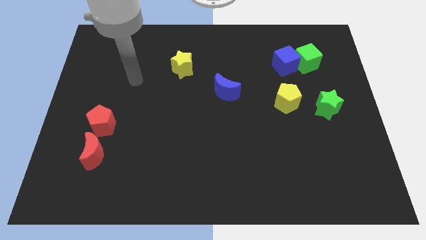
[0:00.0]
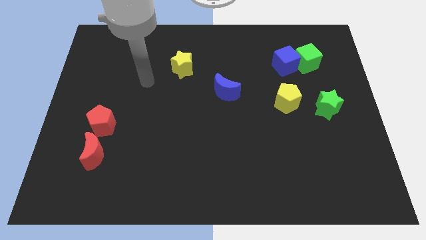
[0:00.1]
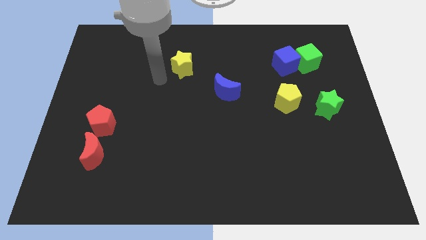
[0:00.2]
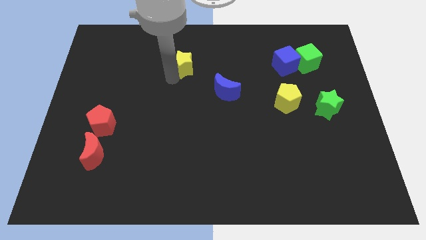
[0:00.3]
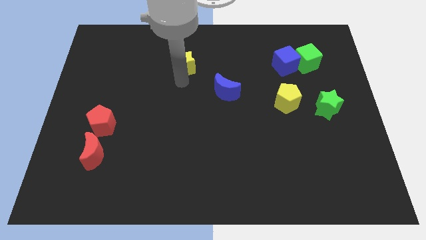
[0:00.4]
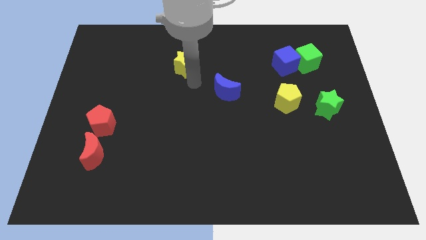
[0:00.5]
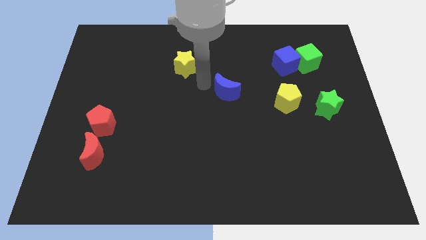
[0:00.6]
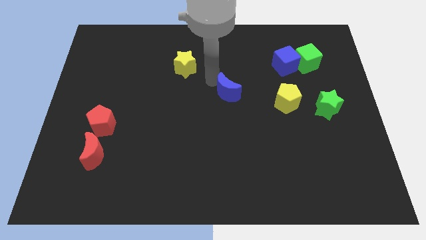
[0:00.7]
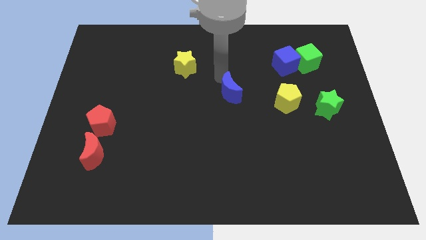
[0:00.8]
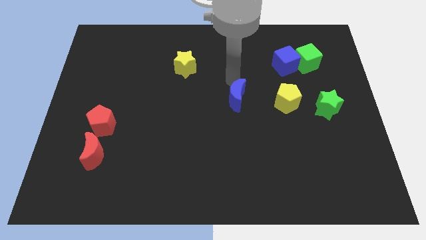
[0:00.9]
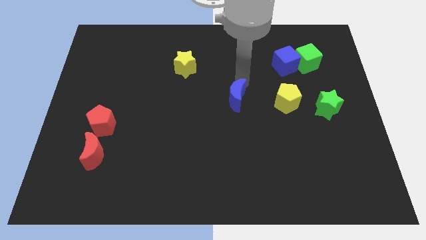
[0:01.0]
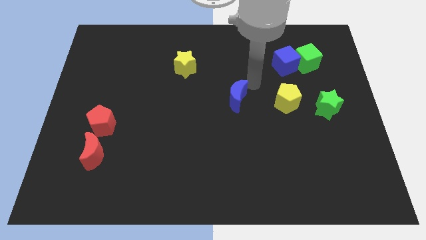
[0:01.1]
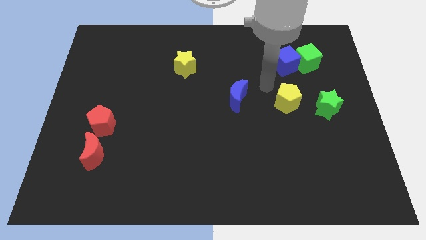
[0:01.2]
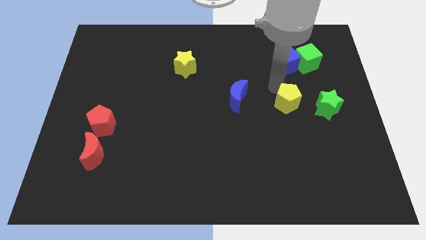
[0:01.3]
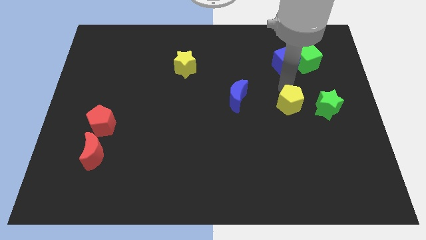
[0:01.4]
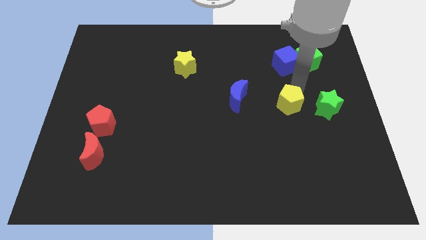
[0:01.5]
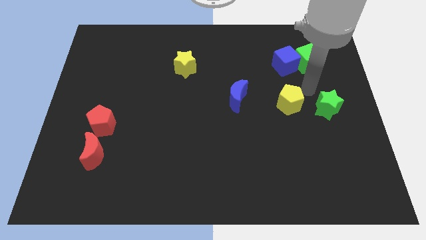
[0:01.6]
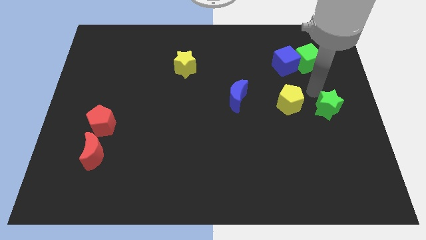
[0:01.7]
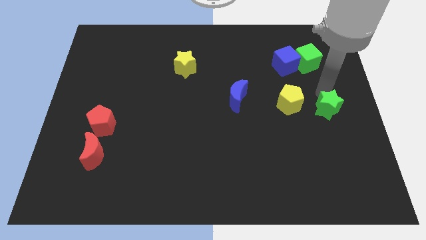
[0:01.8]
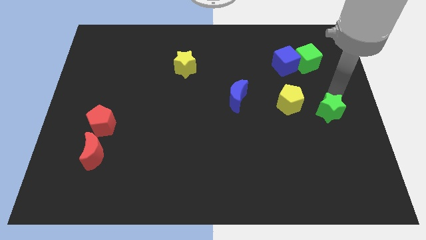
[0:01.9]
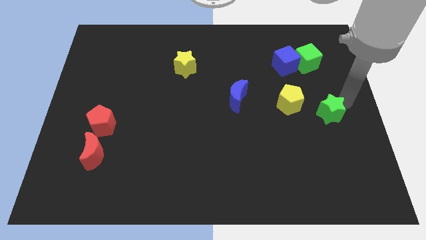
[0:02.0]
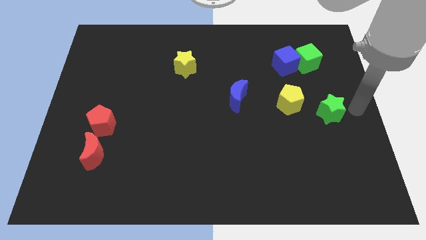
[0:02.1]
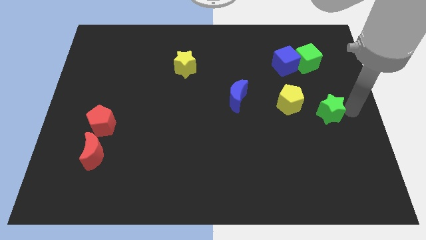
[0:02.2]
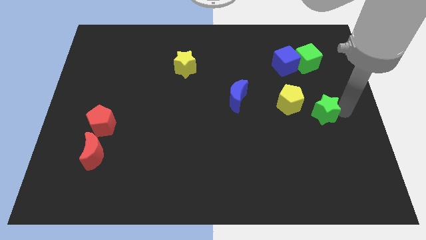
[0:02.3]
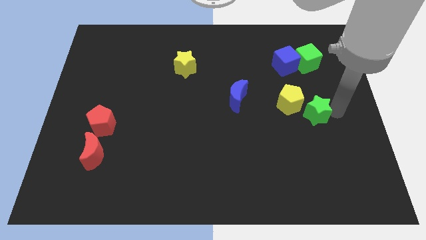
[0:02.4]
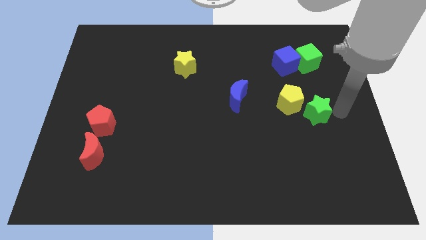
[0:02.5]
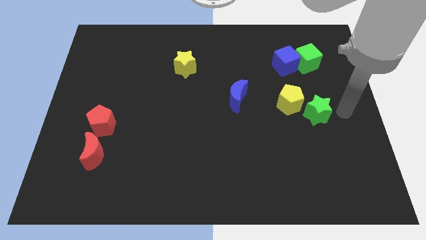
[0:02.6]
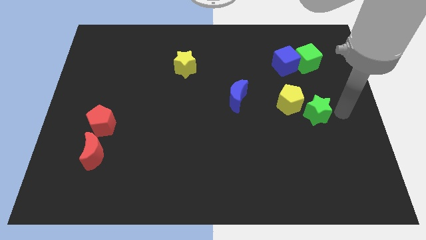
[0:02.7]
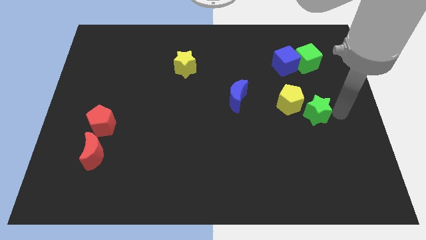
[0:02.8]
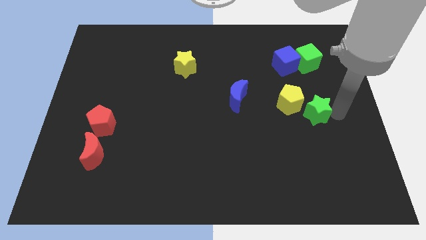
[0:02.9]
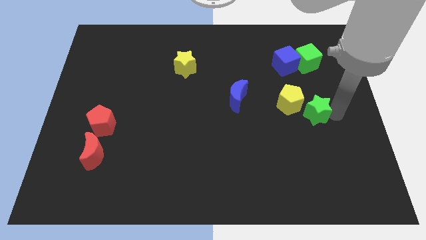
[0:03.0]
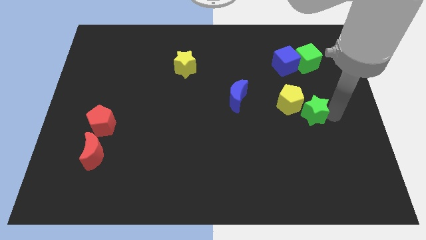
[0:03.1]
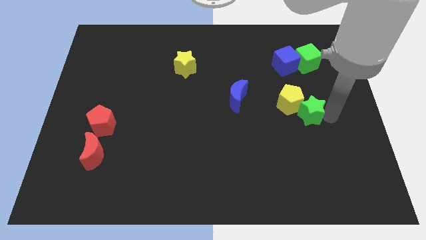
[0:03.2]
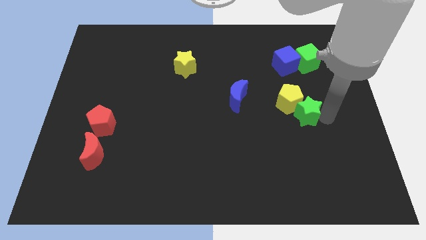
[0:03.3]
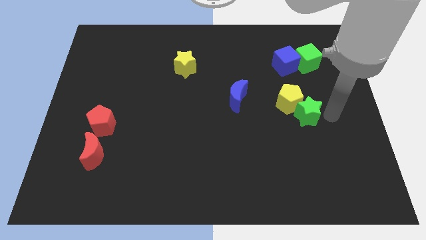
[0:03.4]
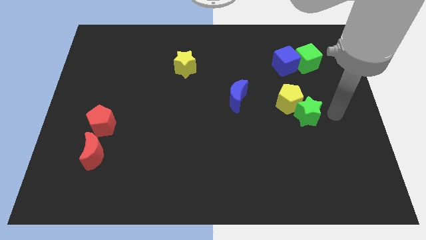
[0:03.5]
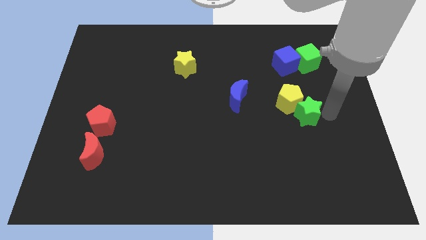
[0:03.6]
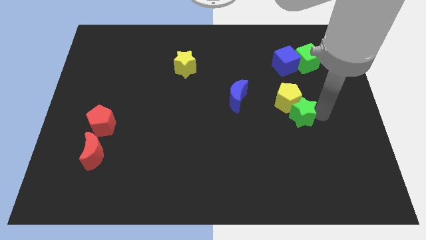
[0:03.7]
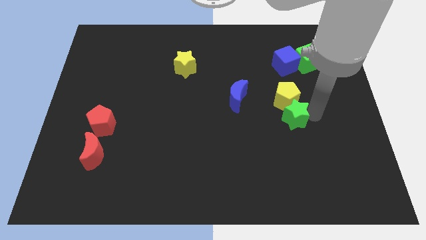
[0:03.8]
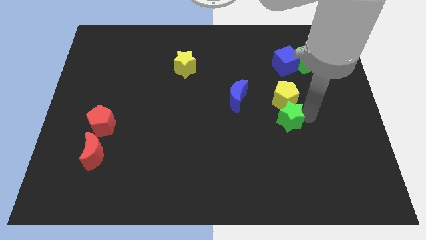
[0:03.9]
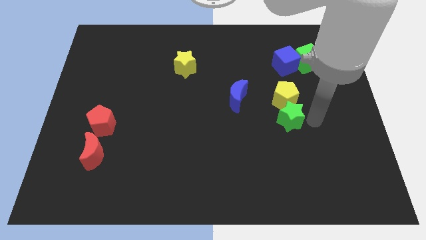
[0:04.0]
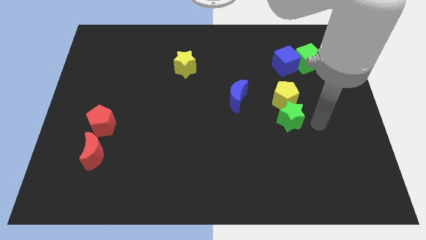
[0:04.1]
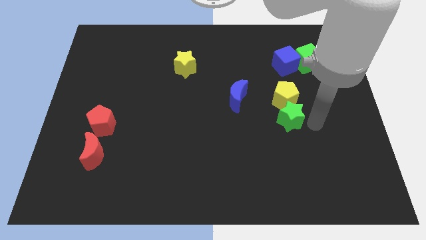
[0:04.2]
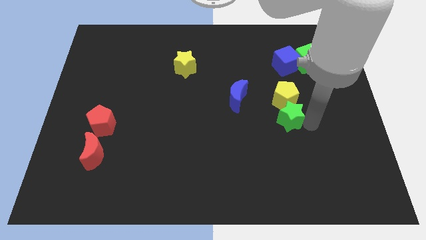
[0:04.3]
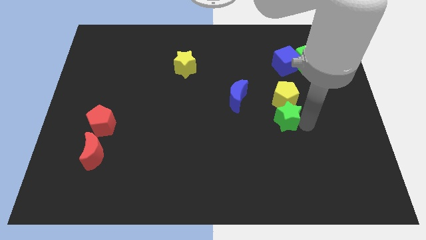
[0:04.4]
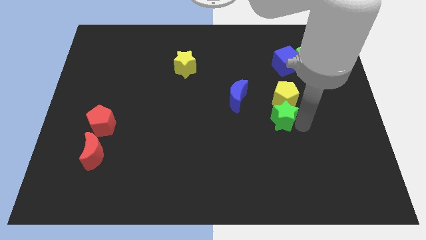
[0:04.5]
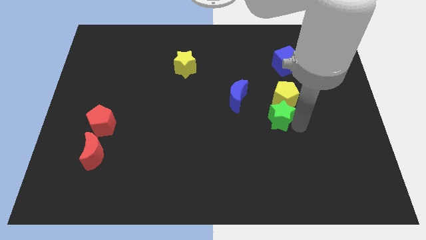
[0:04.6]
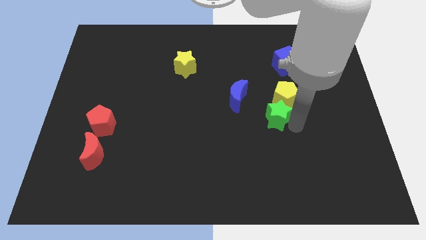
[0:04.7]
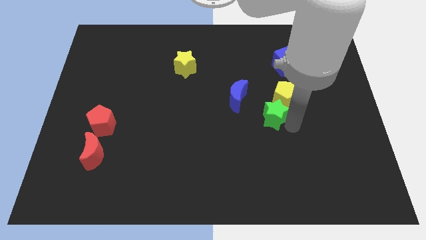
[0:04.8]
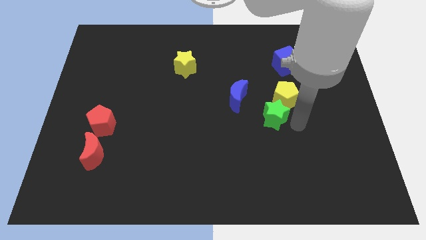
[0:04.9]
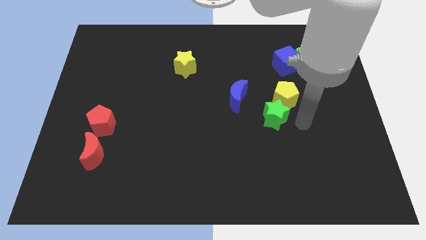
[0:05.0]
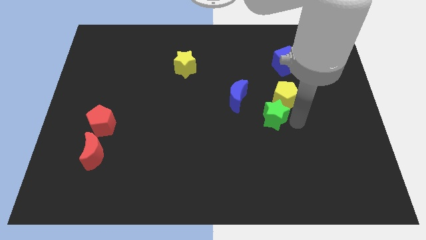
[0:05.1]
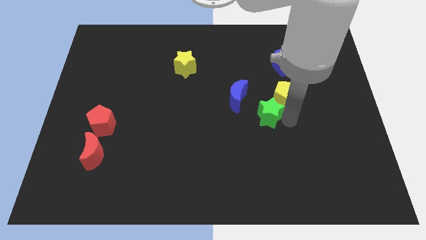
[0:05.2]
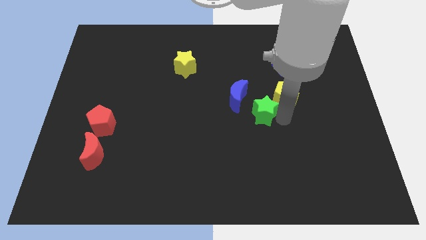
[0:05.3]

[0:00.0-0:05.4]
push the green star to the middle

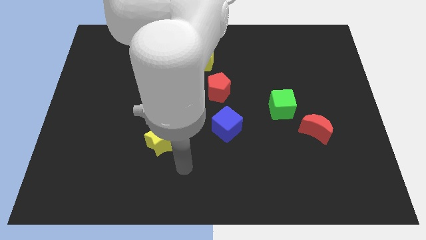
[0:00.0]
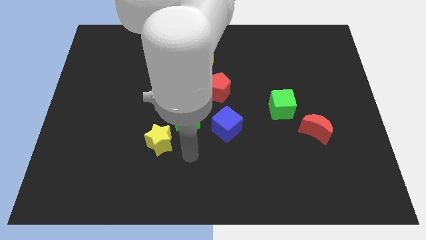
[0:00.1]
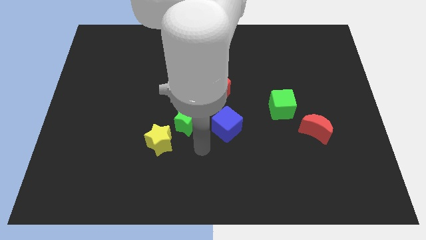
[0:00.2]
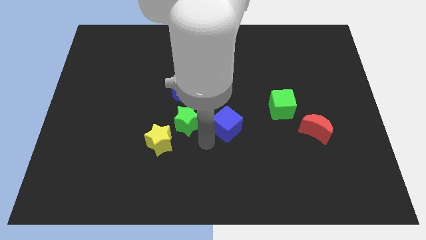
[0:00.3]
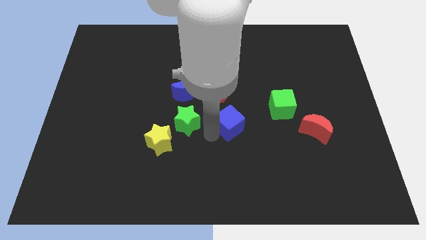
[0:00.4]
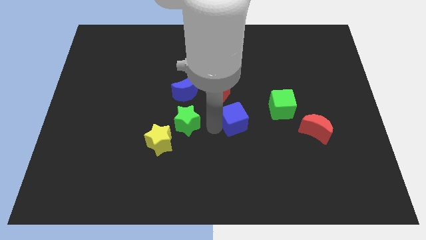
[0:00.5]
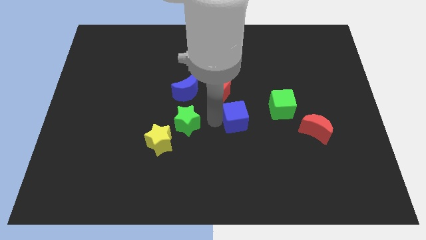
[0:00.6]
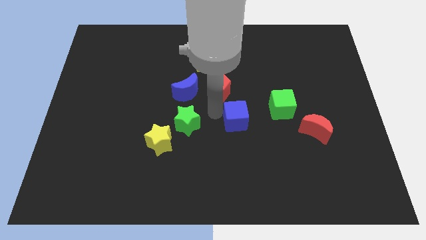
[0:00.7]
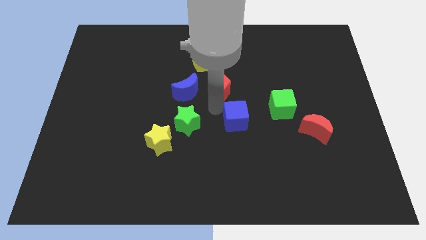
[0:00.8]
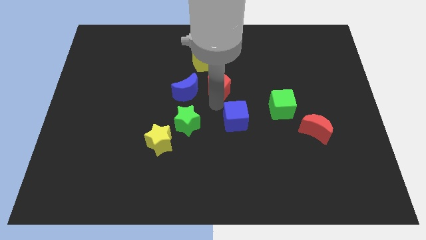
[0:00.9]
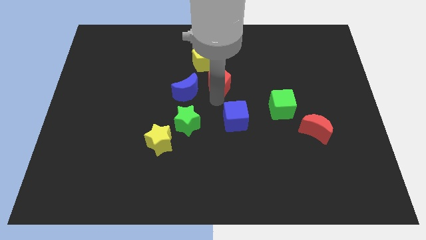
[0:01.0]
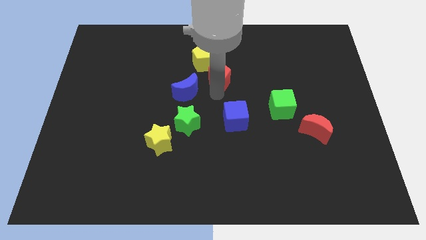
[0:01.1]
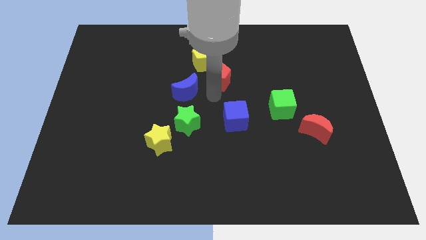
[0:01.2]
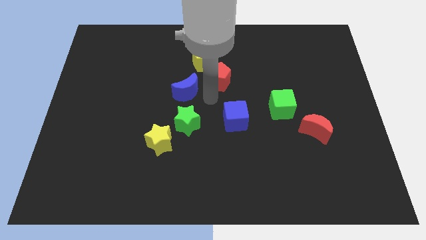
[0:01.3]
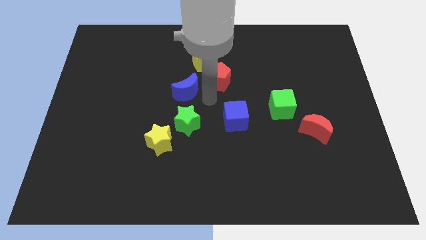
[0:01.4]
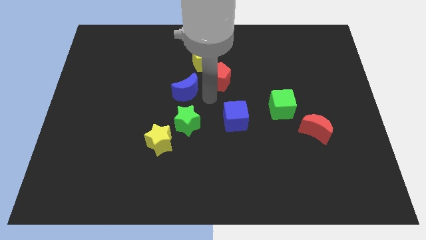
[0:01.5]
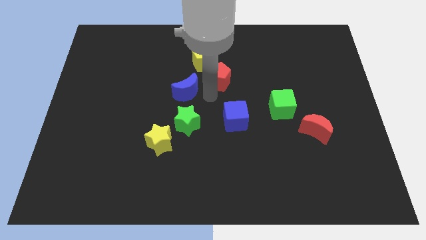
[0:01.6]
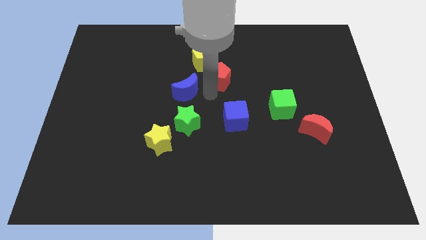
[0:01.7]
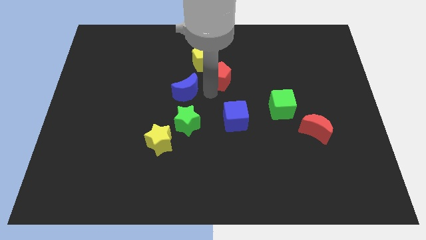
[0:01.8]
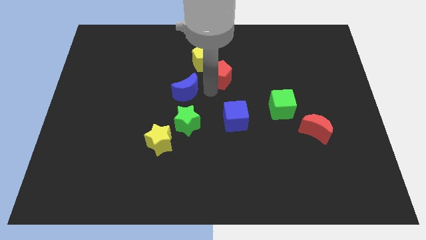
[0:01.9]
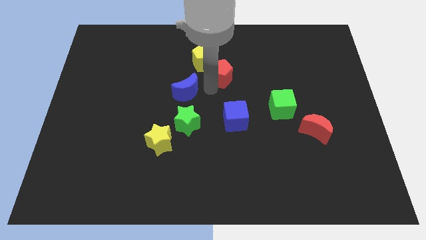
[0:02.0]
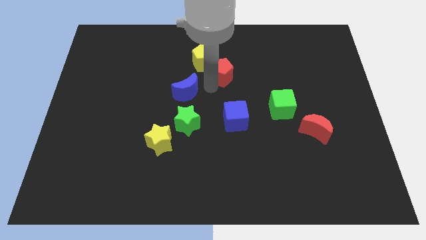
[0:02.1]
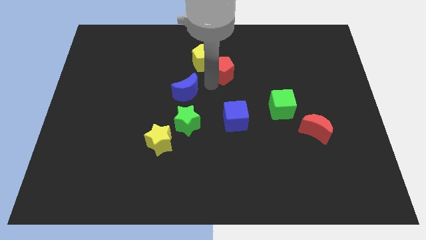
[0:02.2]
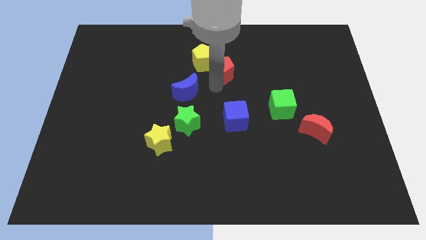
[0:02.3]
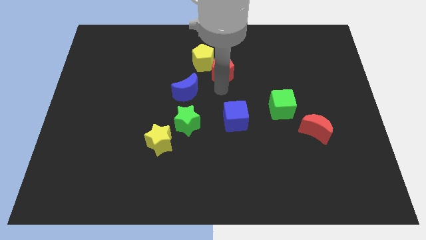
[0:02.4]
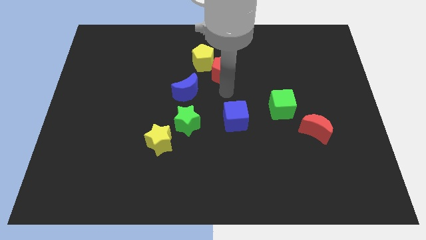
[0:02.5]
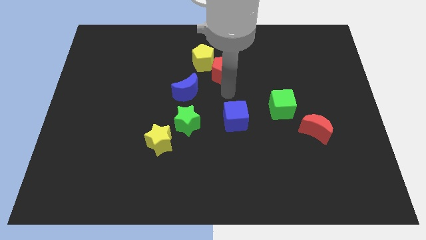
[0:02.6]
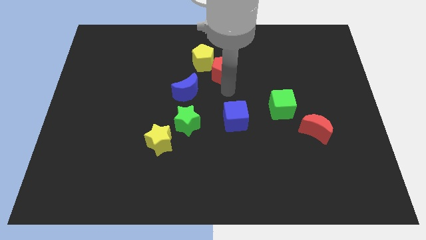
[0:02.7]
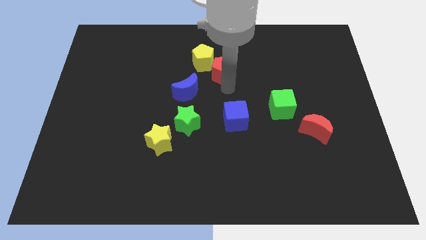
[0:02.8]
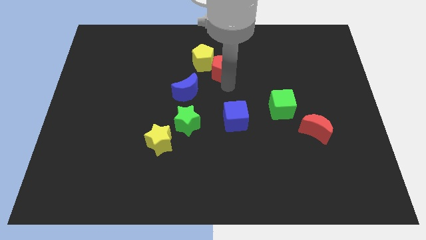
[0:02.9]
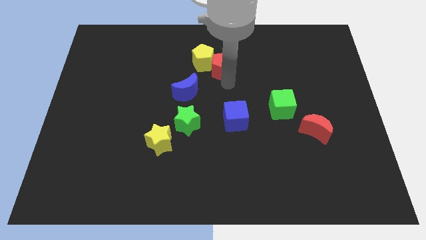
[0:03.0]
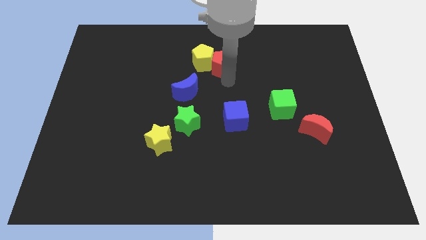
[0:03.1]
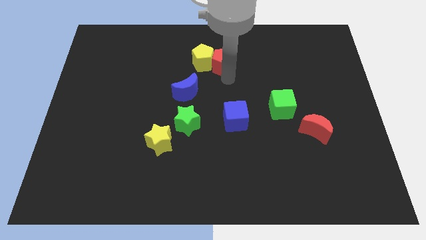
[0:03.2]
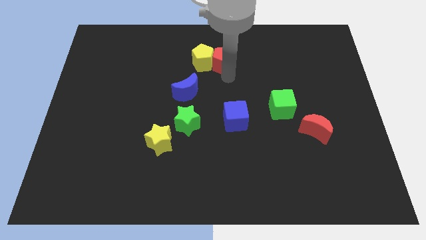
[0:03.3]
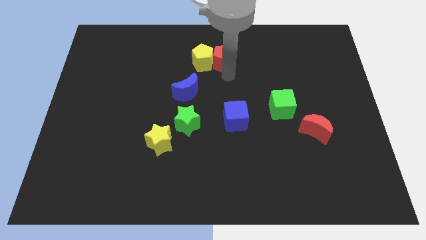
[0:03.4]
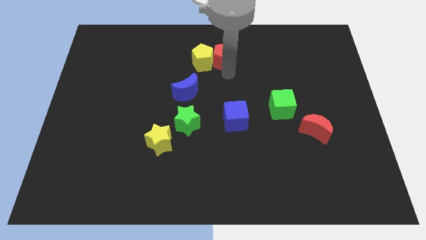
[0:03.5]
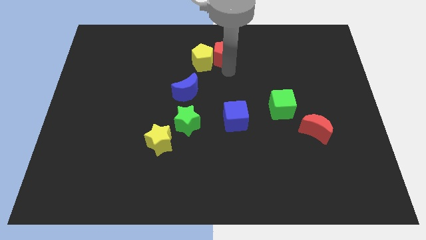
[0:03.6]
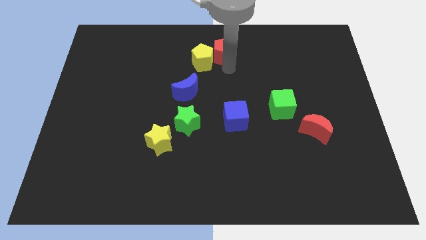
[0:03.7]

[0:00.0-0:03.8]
slide the red pentagon to the towards your base
